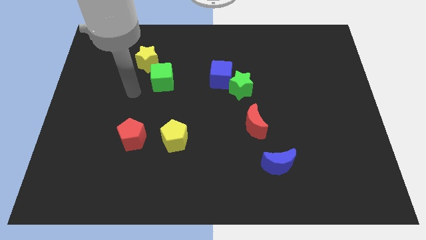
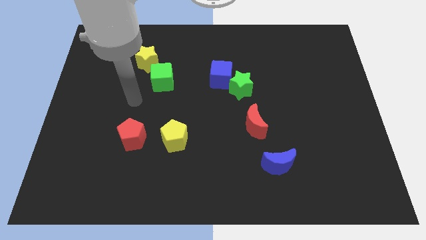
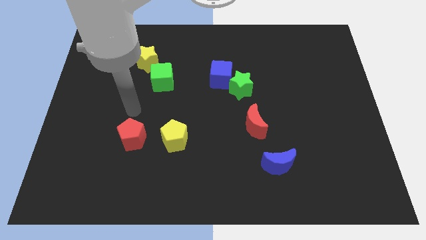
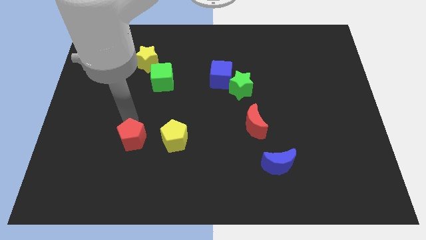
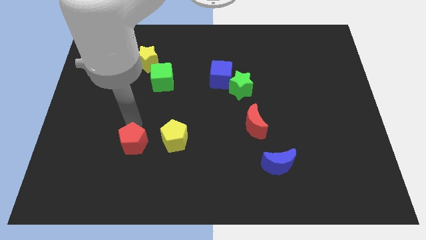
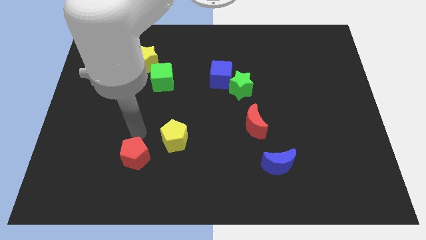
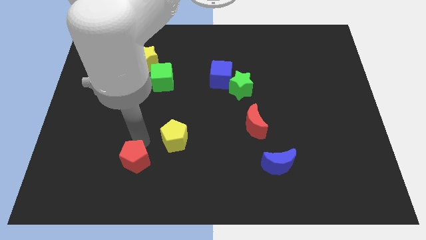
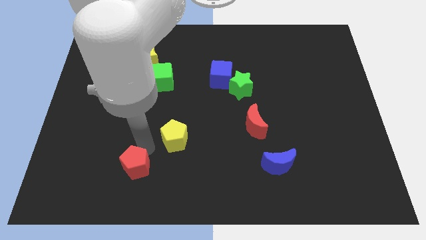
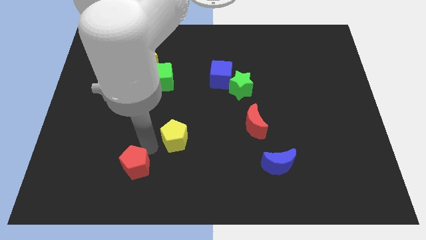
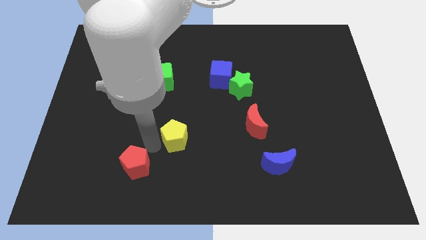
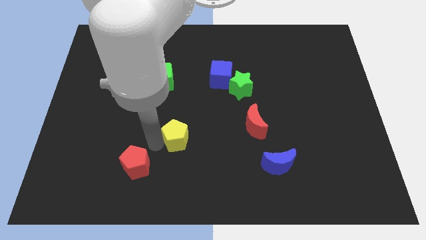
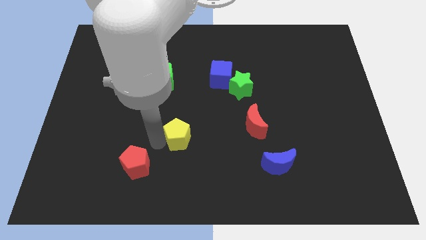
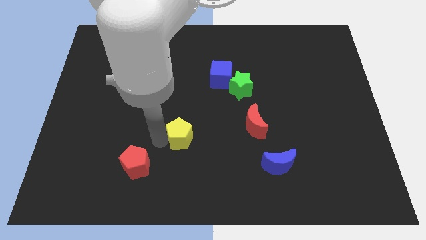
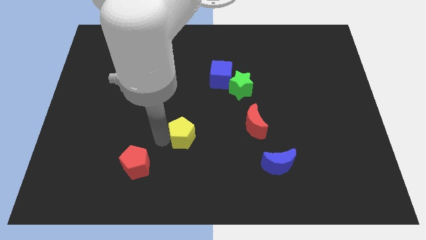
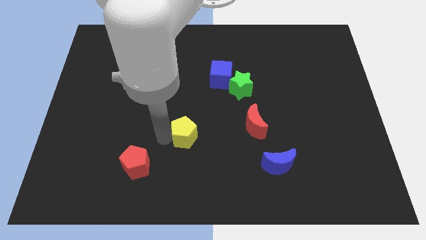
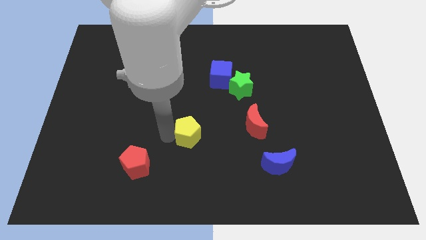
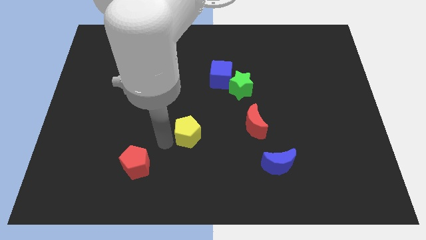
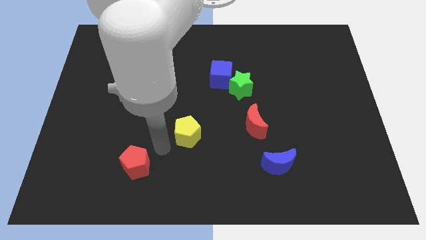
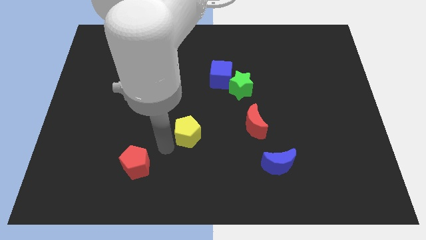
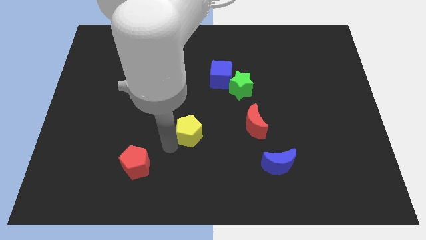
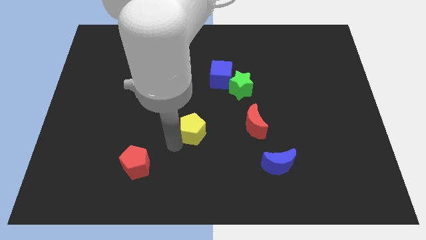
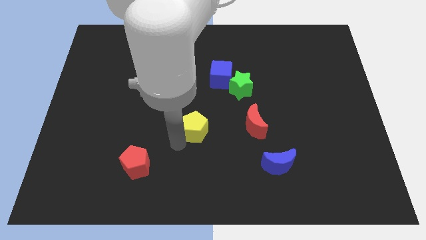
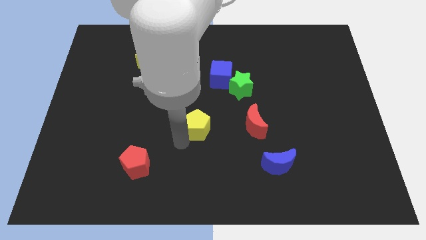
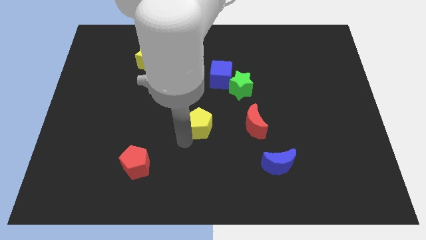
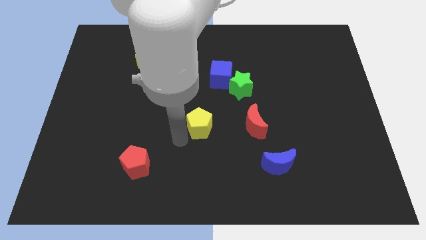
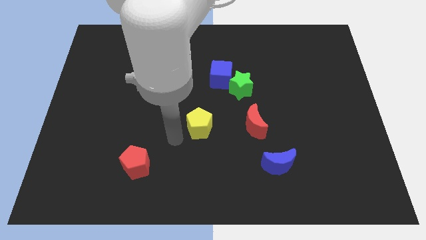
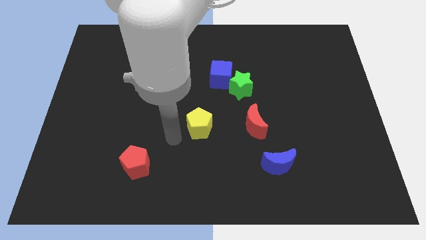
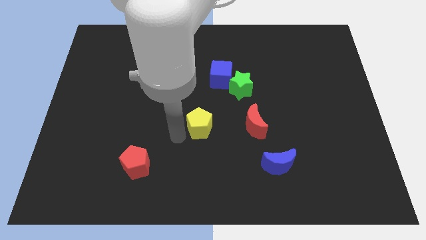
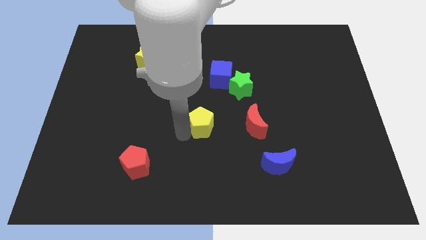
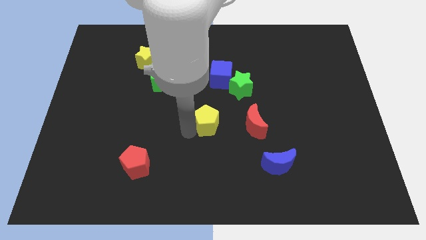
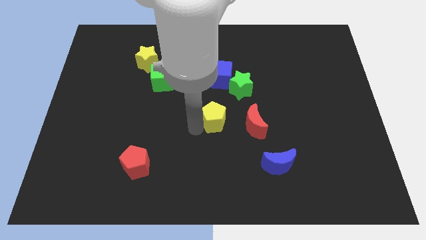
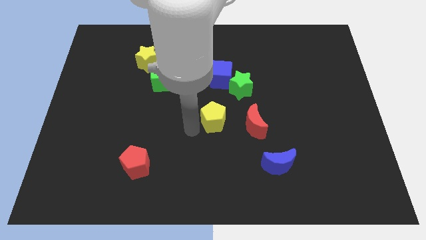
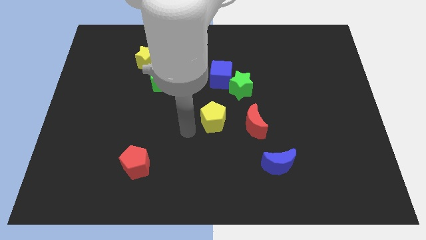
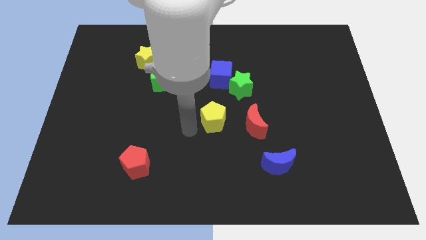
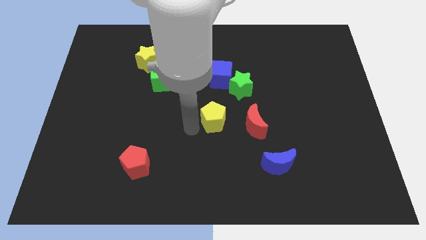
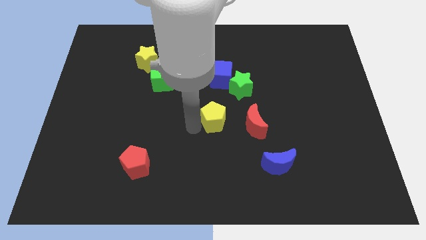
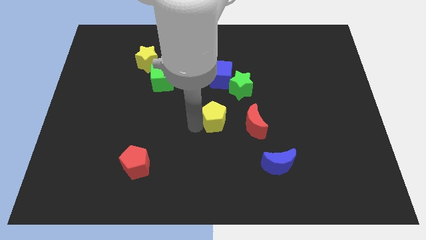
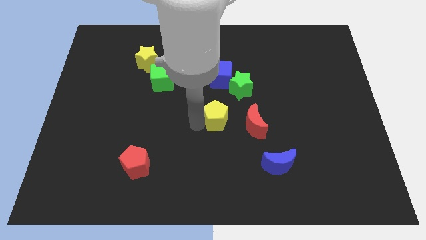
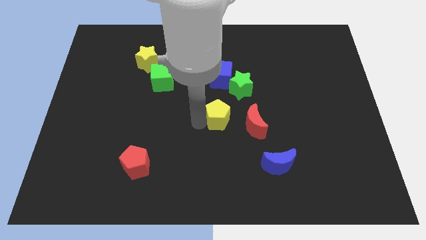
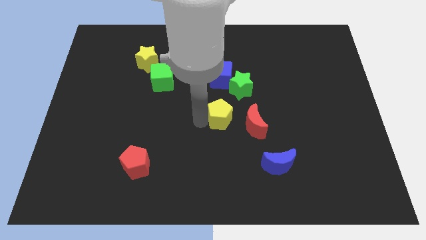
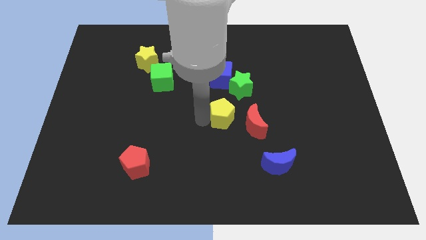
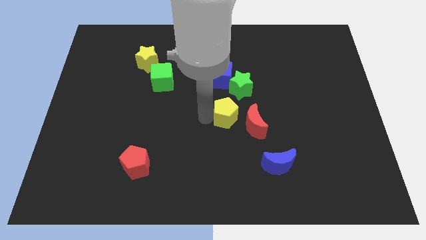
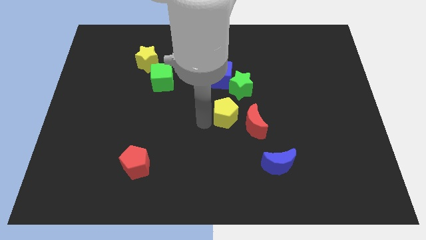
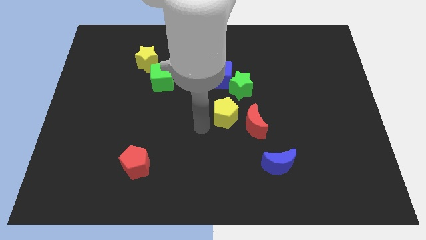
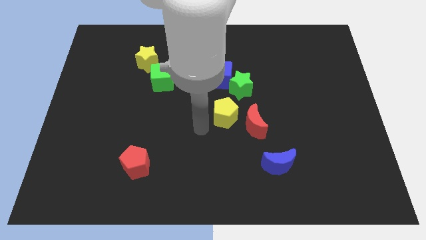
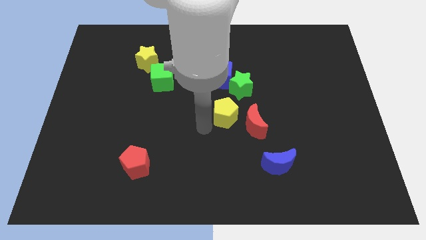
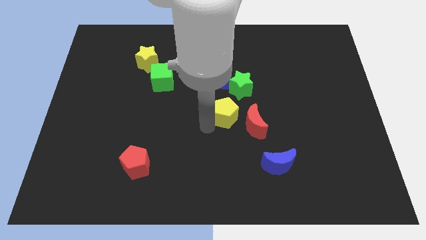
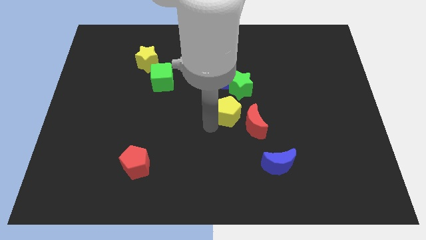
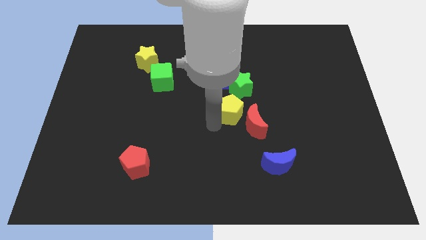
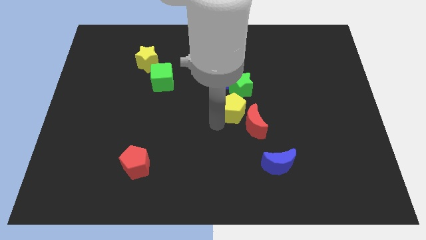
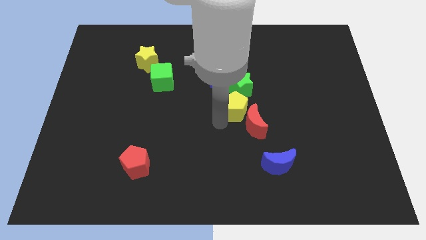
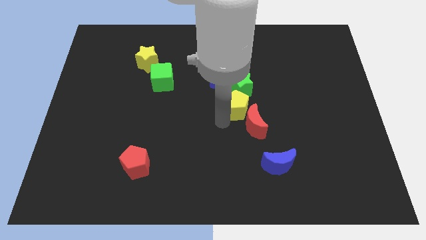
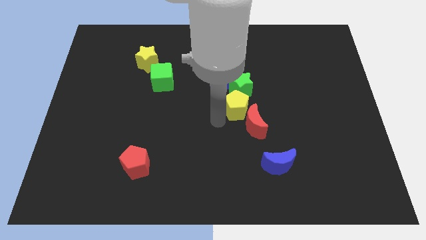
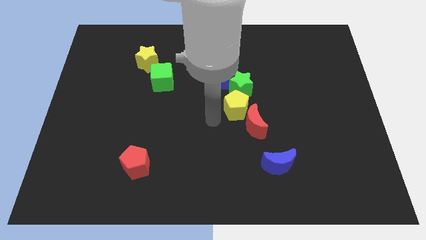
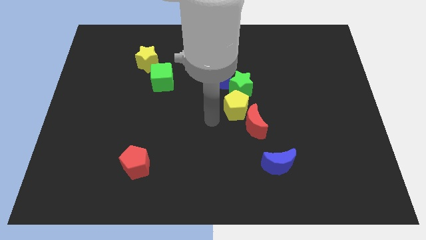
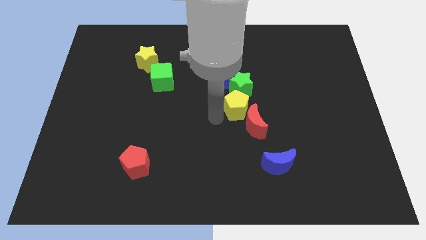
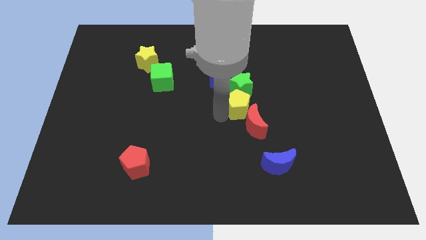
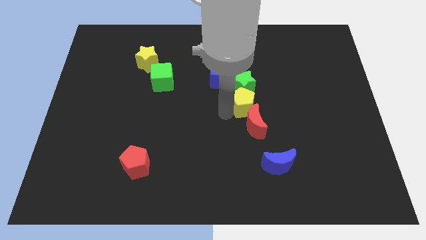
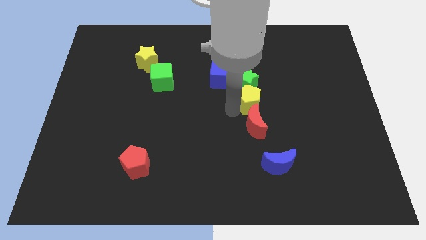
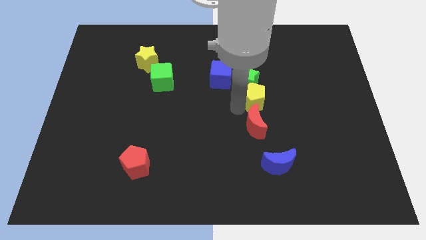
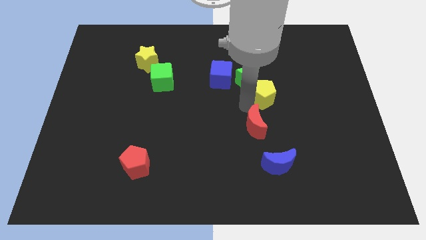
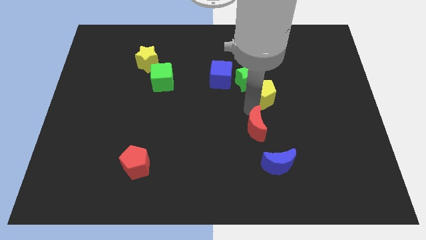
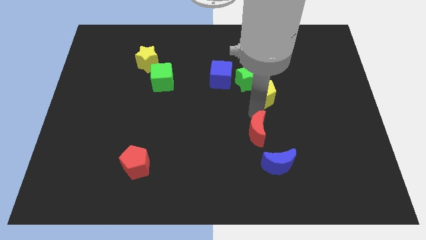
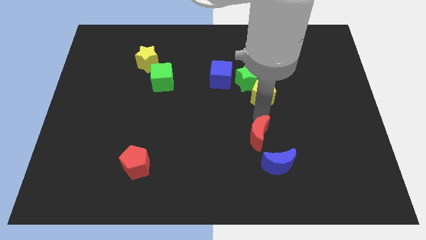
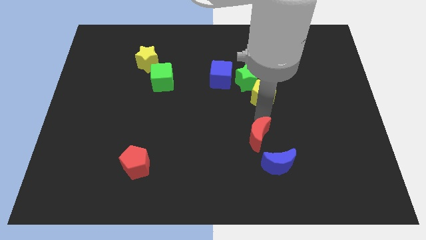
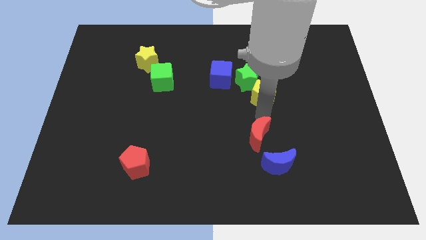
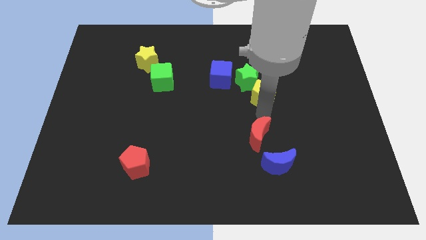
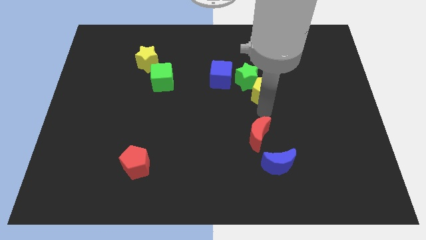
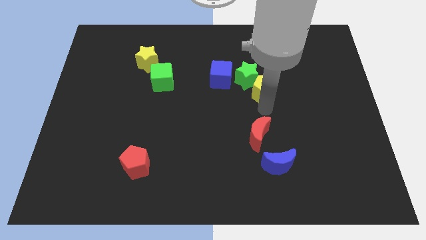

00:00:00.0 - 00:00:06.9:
move the yellow pentagon to the right side of the blue cube

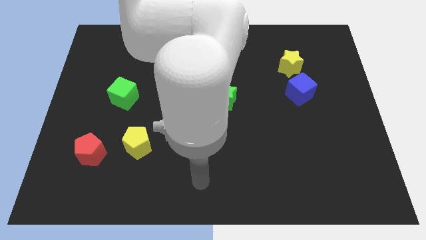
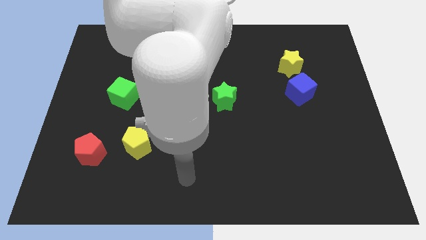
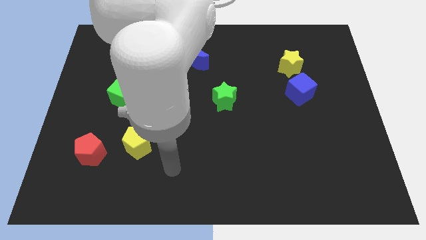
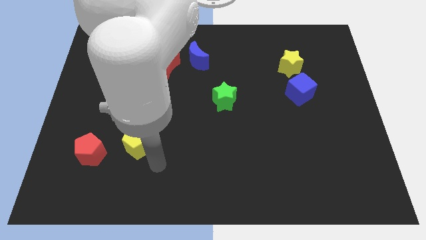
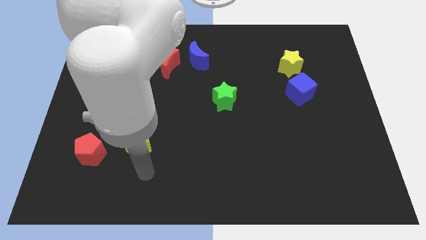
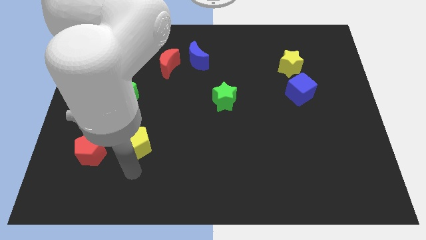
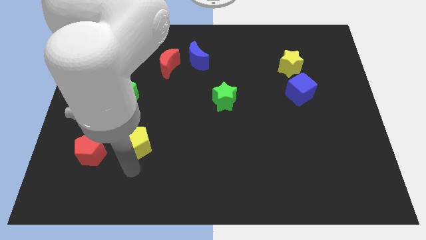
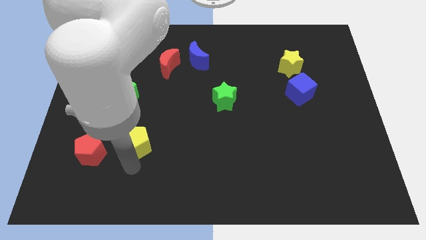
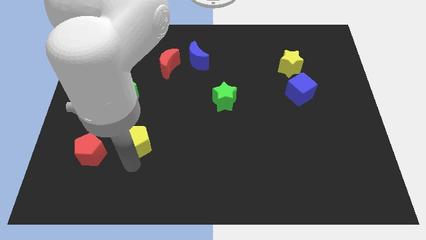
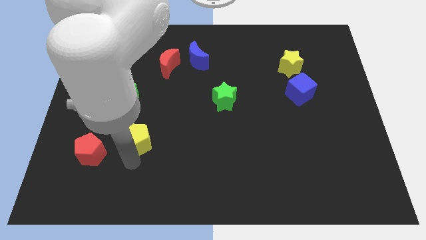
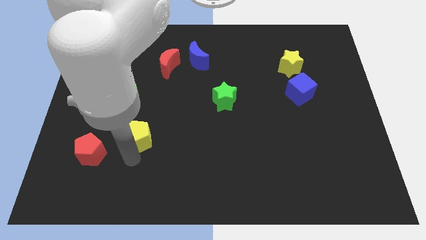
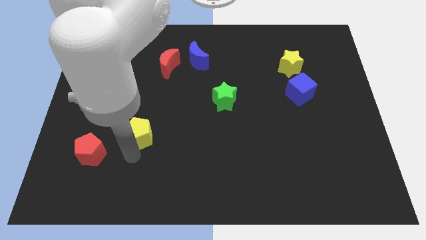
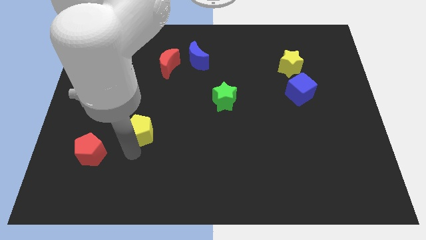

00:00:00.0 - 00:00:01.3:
slide the yellow pentagon diagonally down and to the right of the green cube
